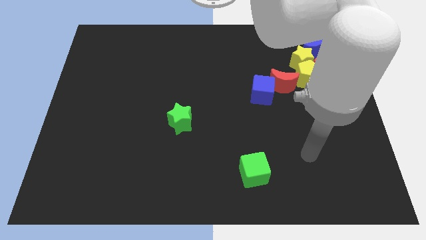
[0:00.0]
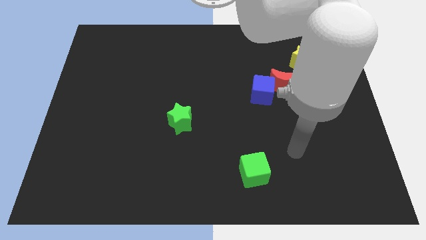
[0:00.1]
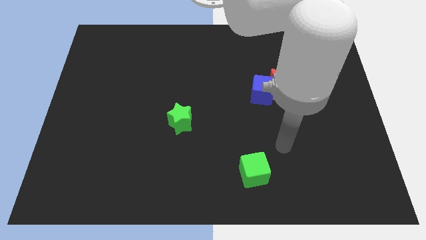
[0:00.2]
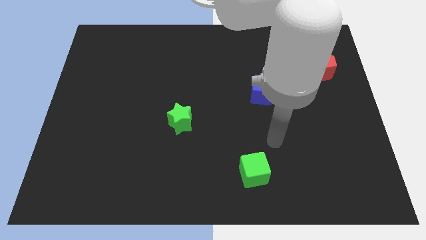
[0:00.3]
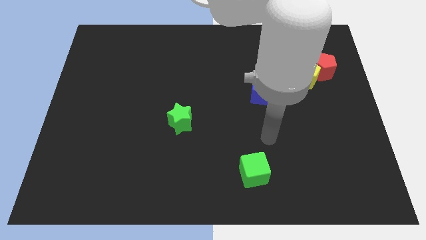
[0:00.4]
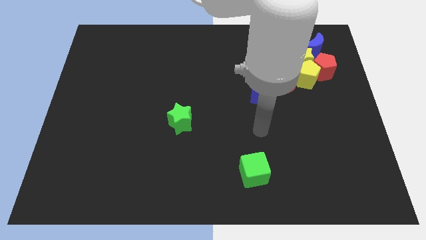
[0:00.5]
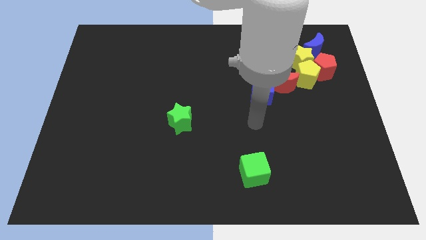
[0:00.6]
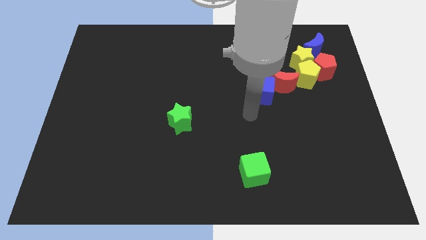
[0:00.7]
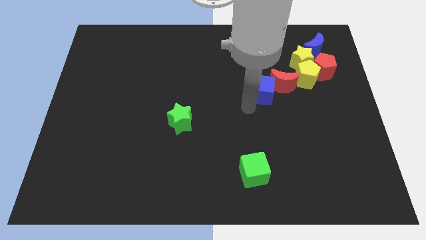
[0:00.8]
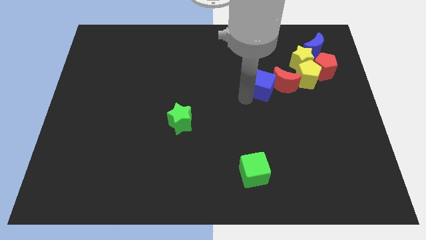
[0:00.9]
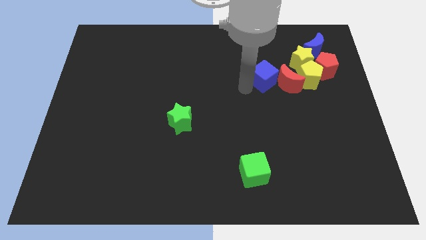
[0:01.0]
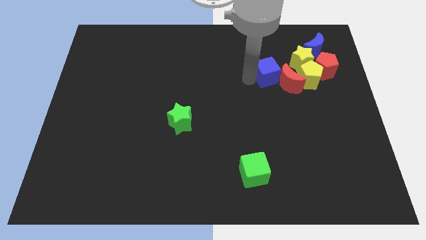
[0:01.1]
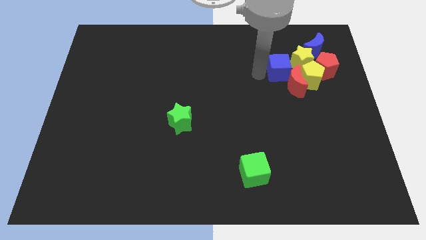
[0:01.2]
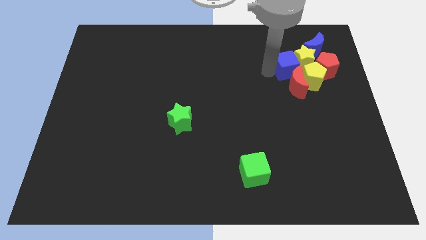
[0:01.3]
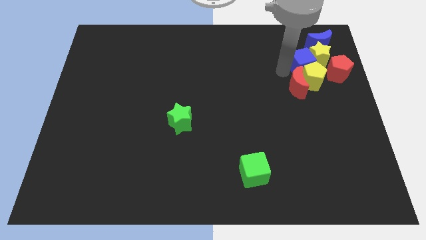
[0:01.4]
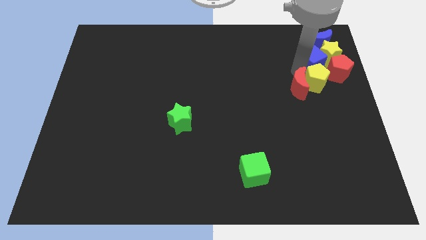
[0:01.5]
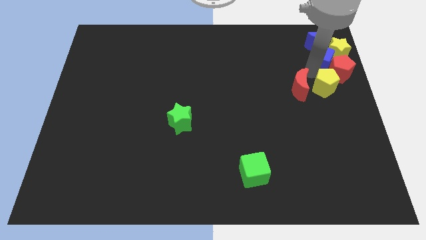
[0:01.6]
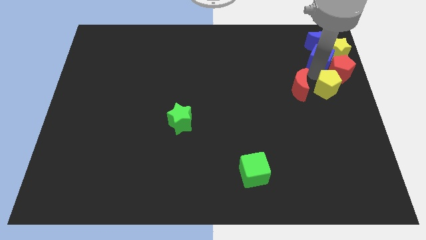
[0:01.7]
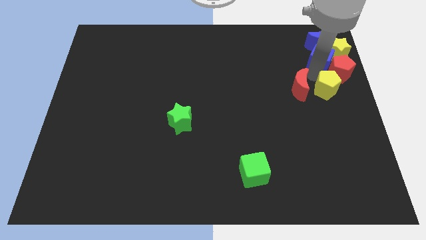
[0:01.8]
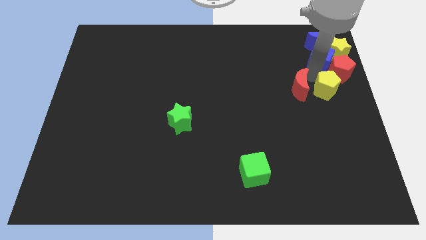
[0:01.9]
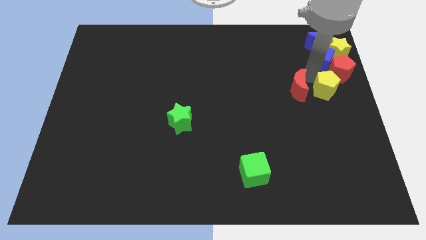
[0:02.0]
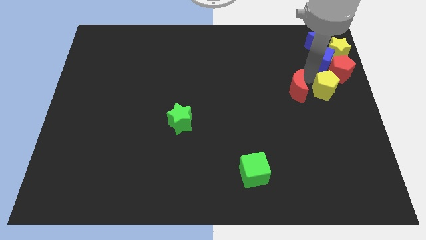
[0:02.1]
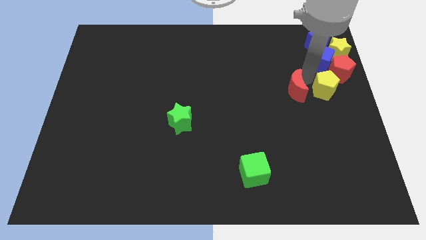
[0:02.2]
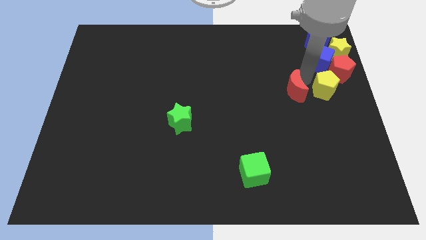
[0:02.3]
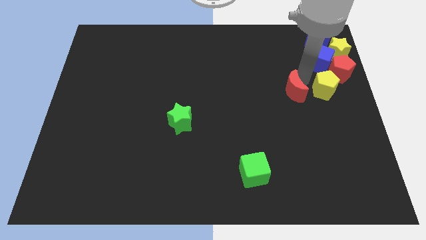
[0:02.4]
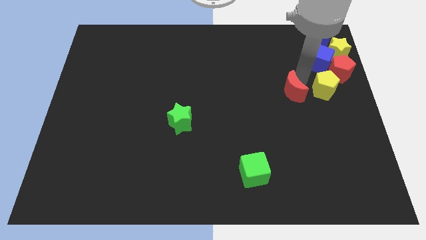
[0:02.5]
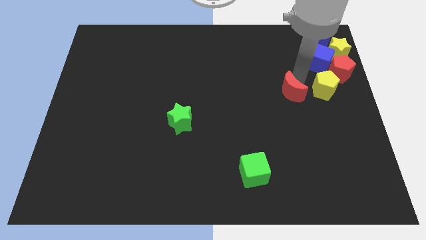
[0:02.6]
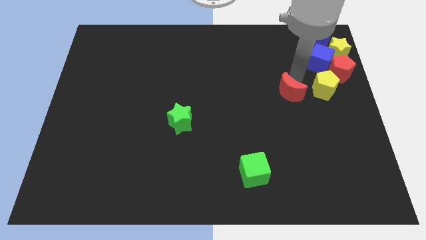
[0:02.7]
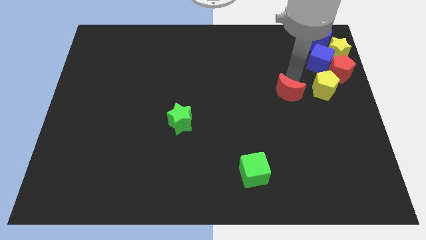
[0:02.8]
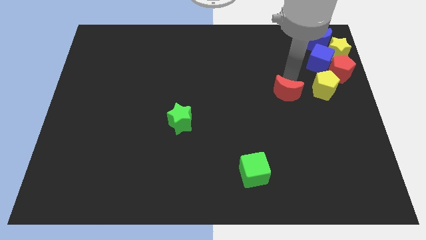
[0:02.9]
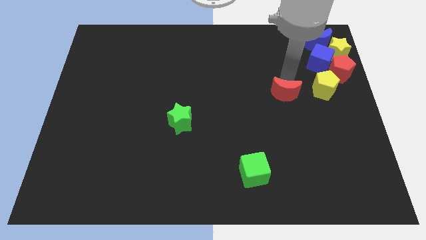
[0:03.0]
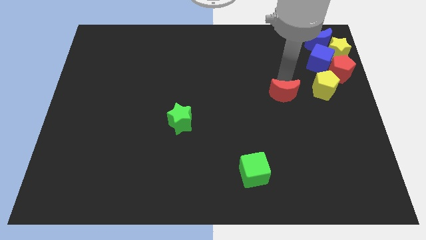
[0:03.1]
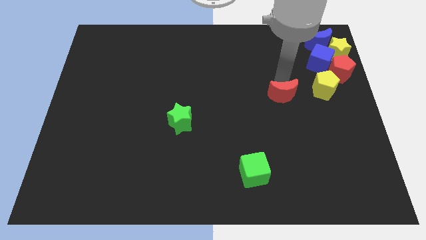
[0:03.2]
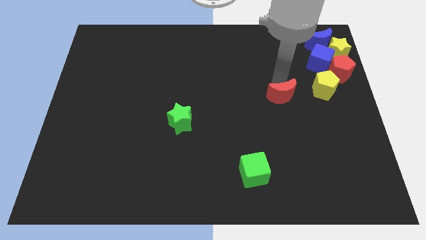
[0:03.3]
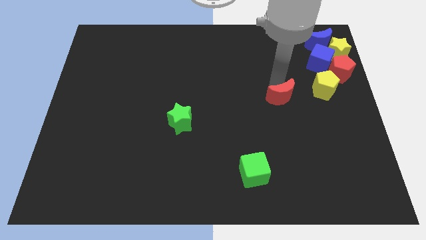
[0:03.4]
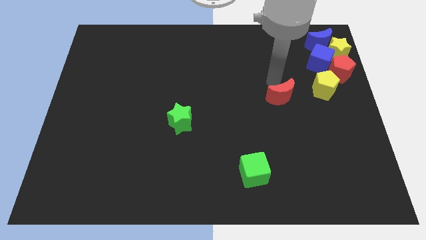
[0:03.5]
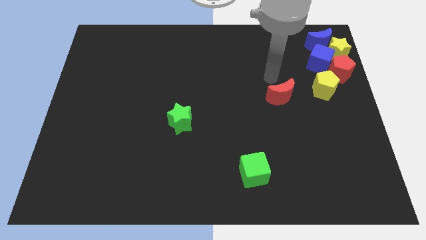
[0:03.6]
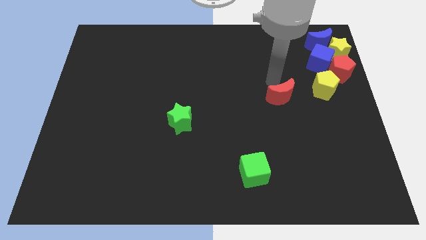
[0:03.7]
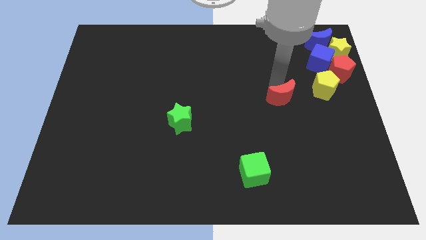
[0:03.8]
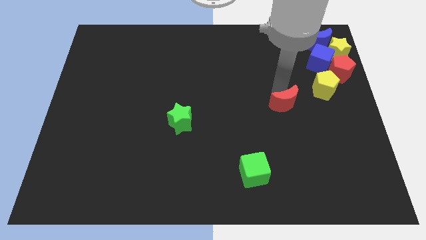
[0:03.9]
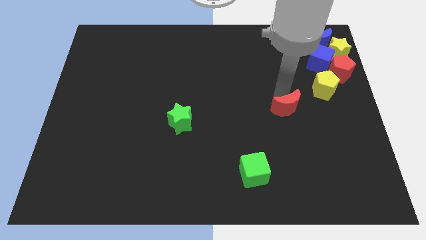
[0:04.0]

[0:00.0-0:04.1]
slightly move the red moon downwards

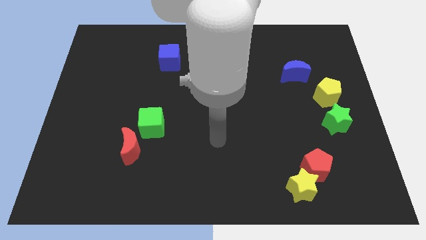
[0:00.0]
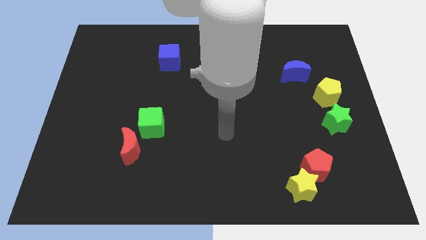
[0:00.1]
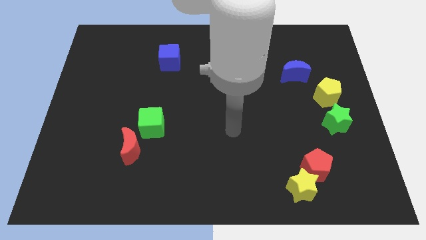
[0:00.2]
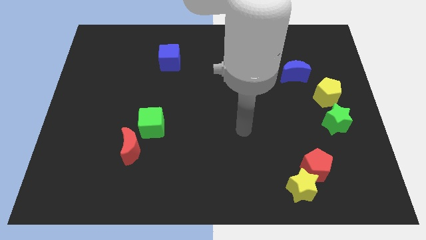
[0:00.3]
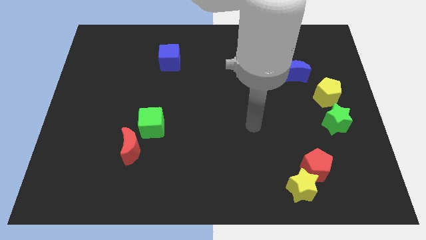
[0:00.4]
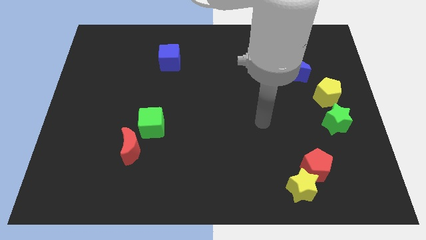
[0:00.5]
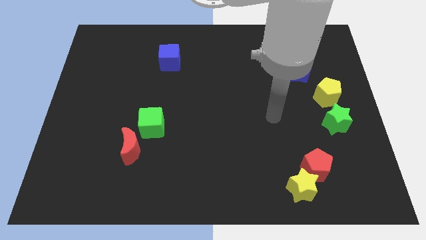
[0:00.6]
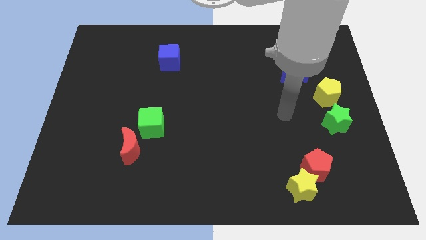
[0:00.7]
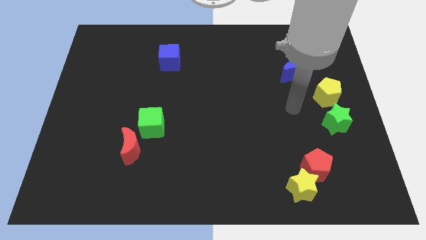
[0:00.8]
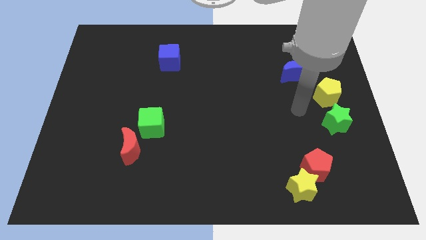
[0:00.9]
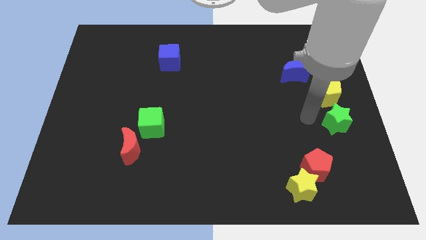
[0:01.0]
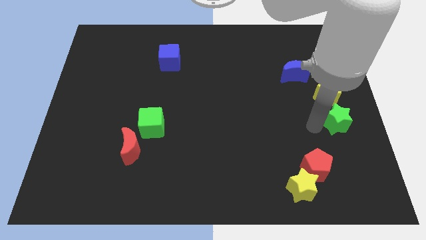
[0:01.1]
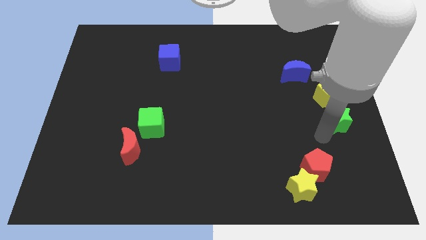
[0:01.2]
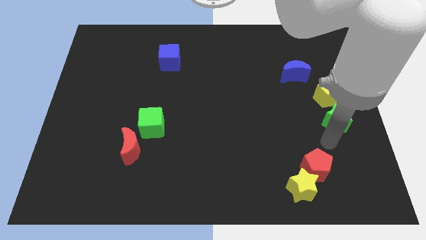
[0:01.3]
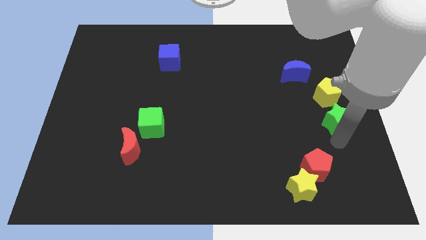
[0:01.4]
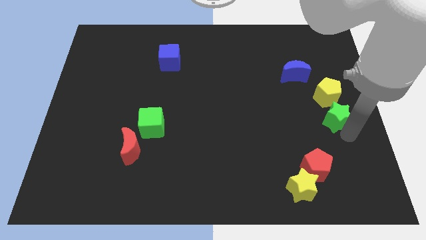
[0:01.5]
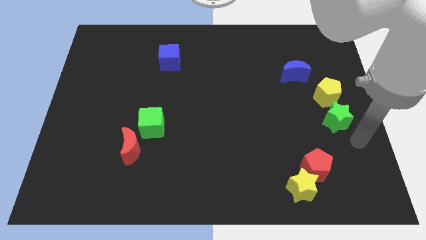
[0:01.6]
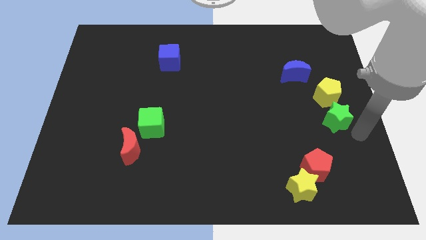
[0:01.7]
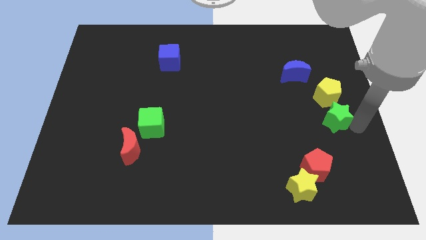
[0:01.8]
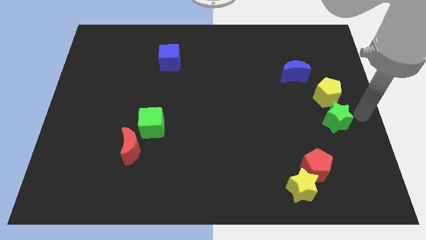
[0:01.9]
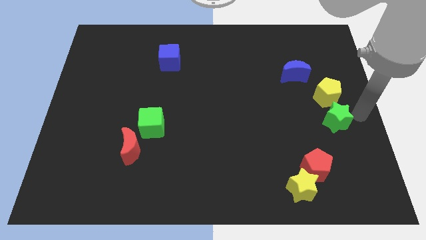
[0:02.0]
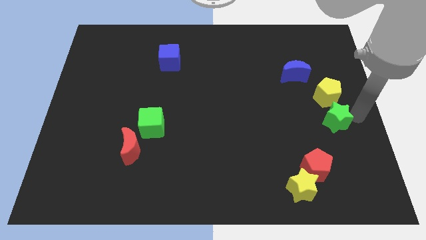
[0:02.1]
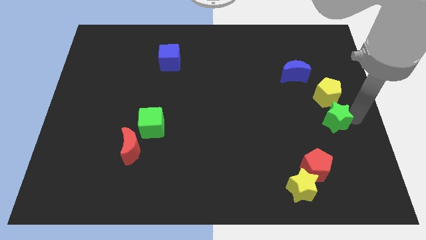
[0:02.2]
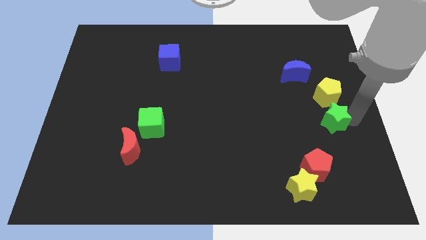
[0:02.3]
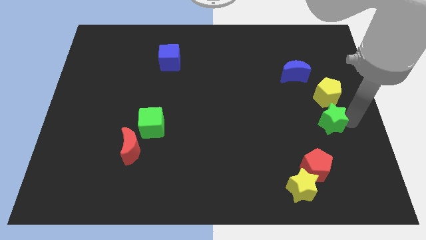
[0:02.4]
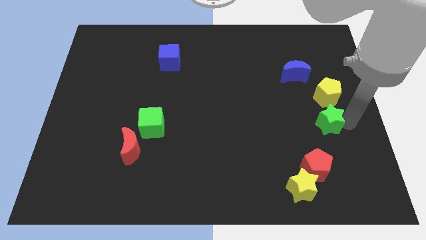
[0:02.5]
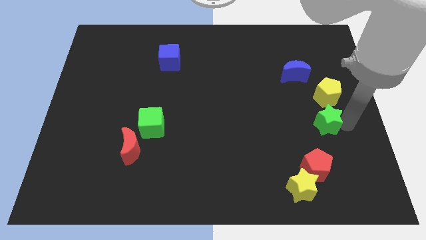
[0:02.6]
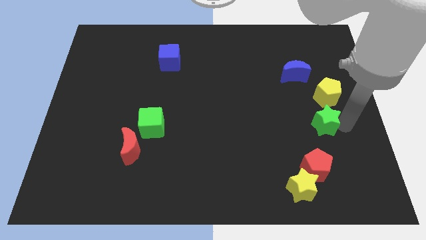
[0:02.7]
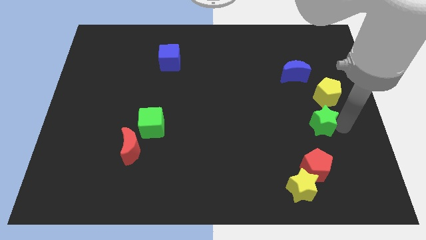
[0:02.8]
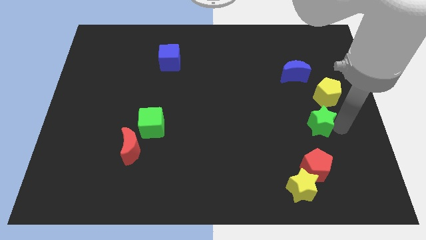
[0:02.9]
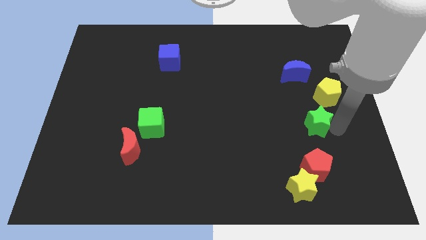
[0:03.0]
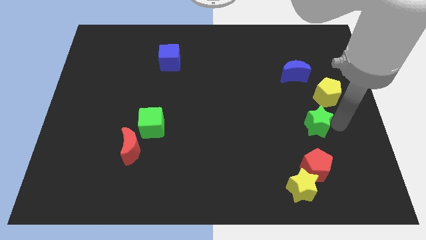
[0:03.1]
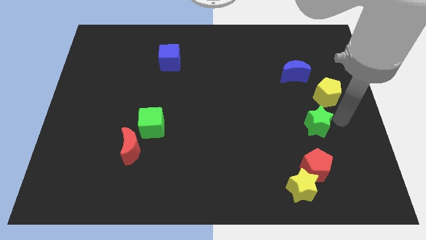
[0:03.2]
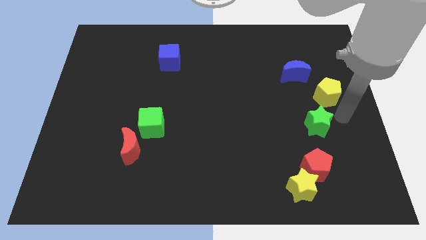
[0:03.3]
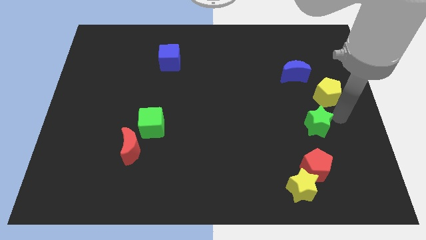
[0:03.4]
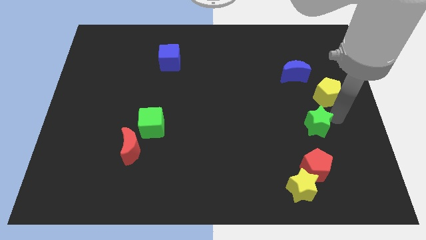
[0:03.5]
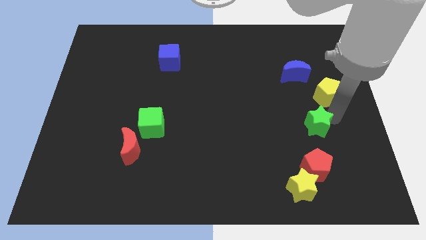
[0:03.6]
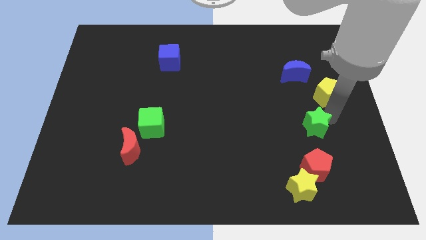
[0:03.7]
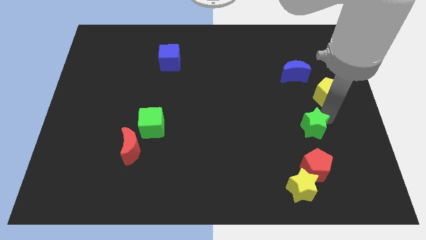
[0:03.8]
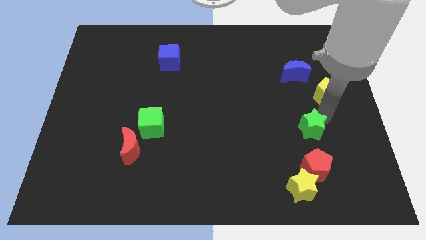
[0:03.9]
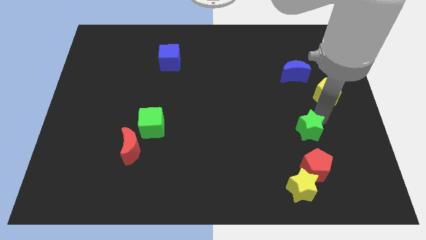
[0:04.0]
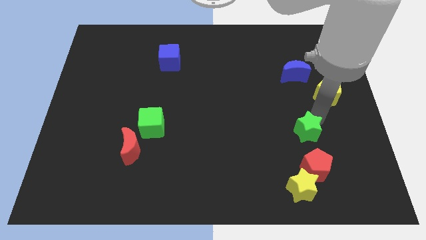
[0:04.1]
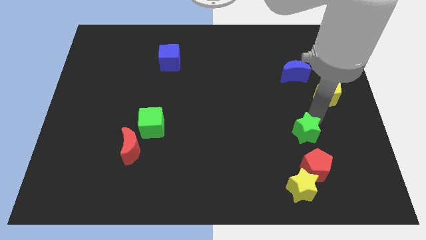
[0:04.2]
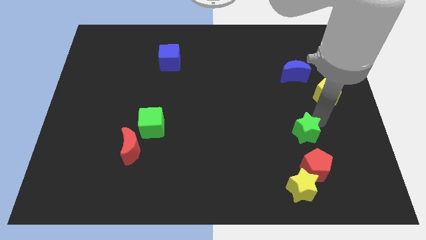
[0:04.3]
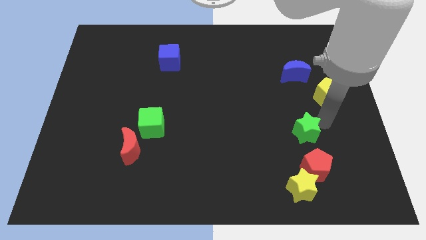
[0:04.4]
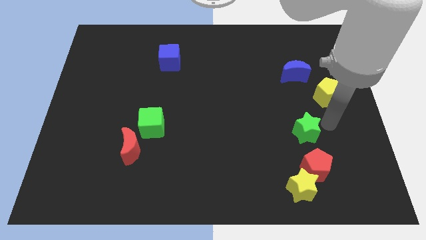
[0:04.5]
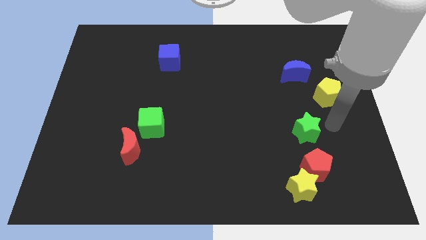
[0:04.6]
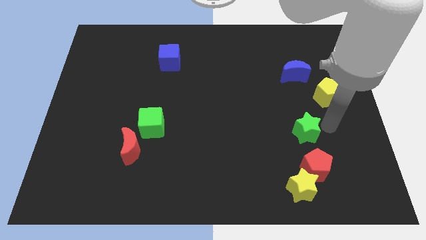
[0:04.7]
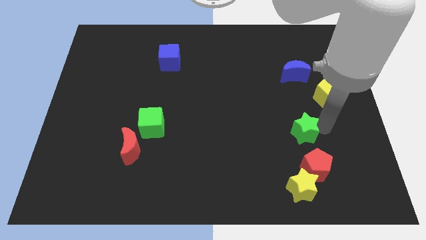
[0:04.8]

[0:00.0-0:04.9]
slide the green star a little downwards and to the left diagonally
